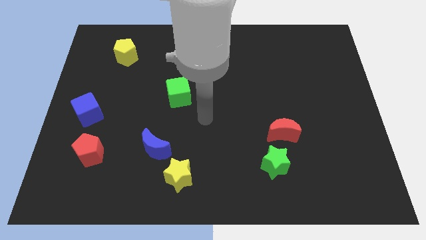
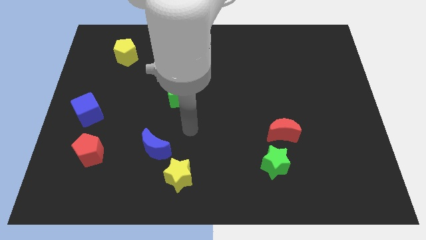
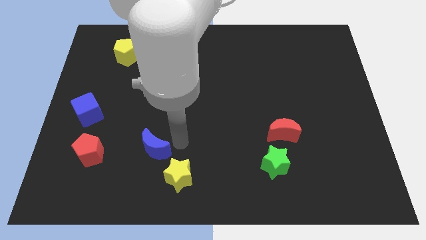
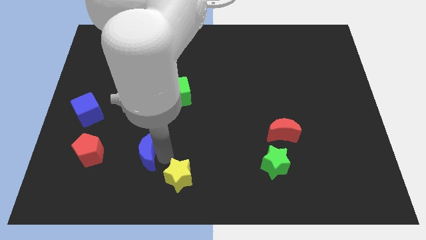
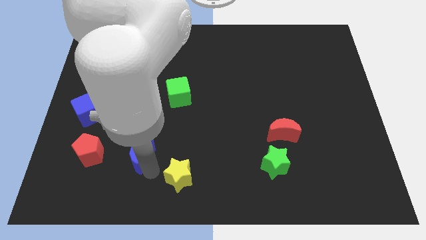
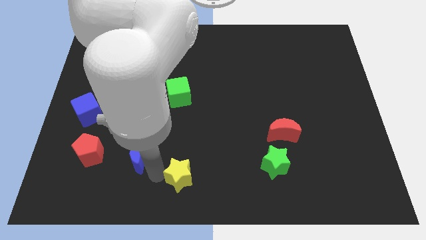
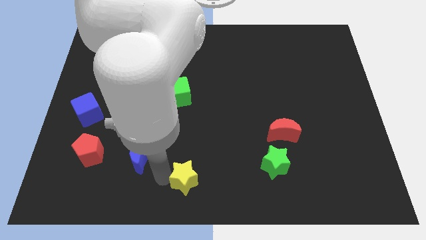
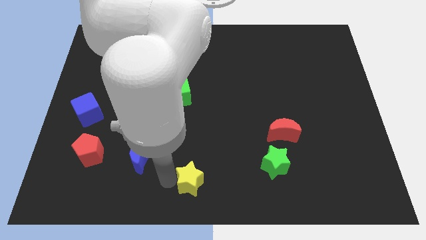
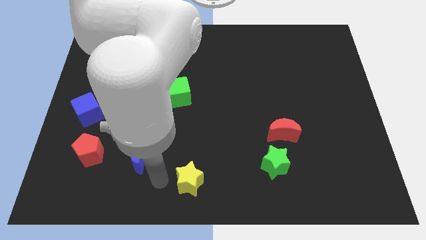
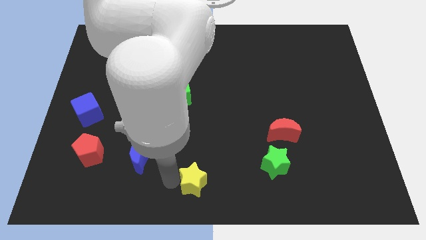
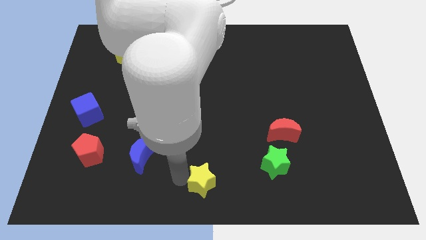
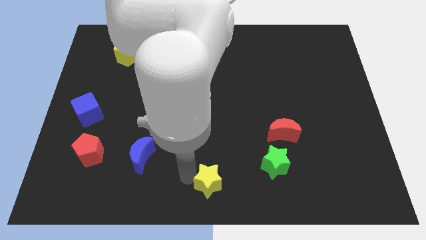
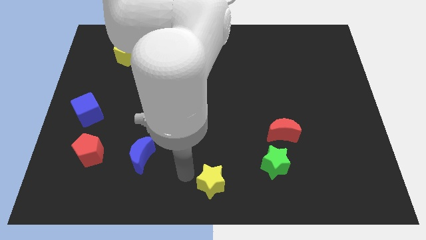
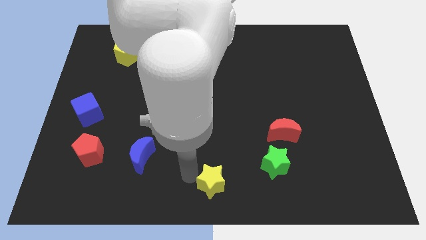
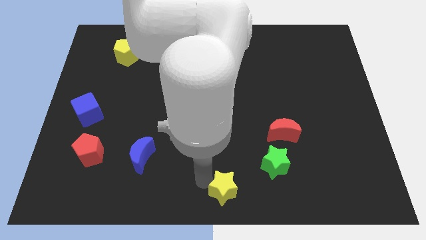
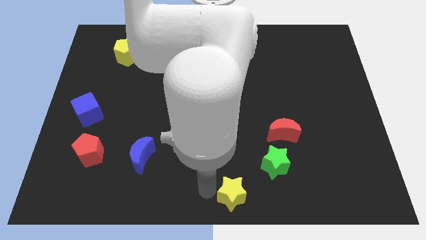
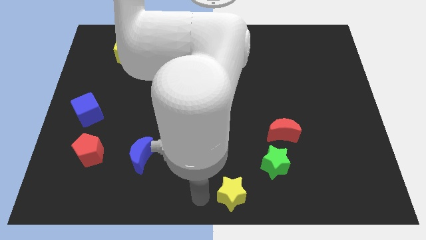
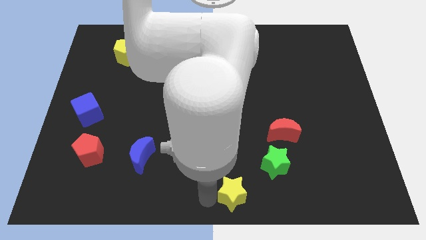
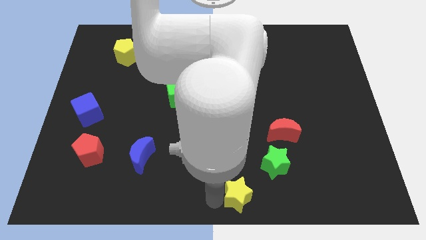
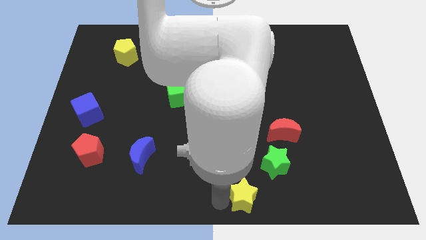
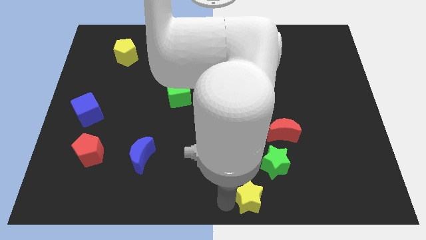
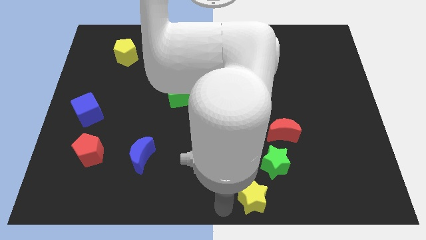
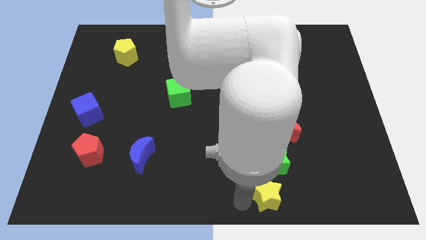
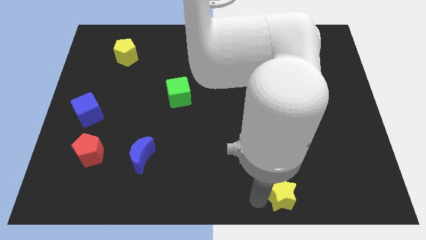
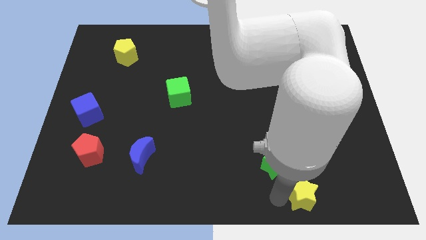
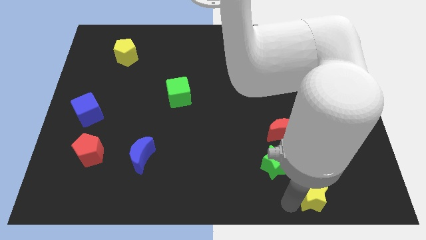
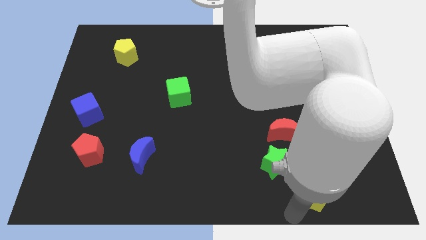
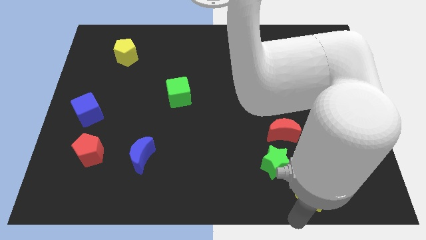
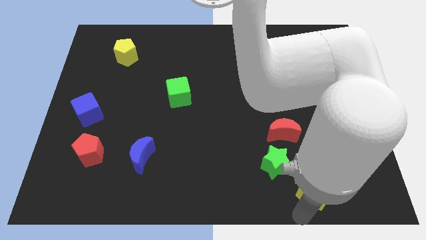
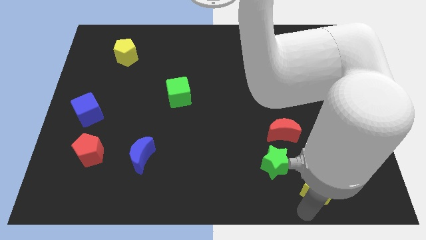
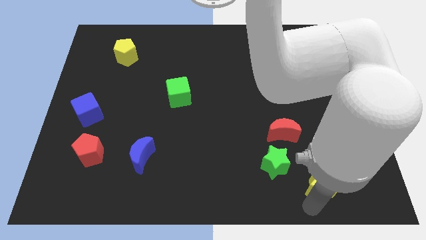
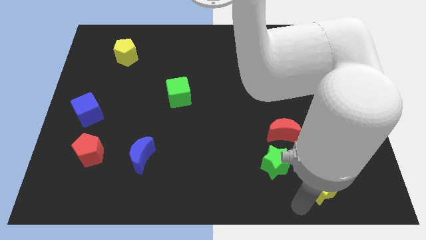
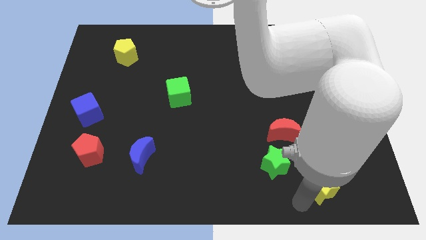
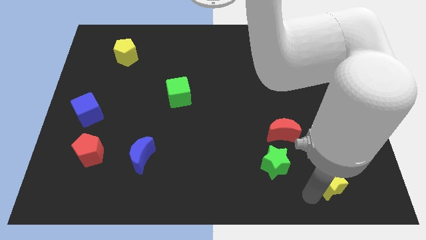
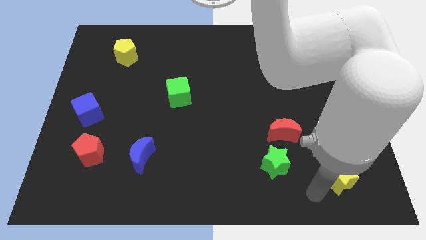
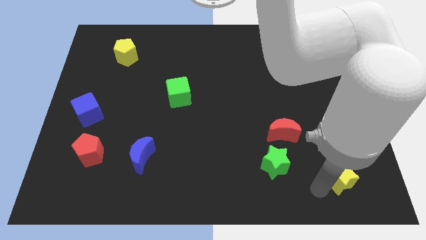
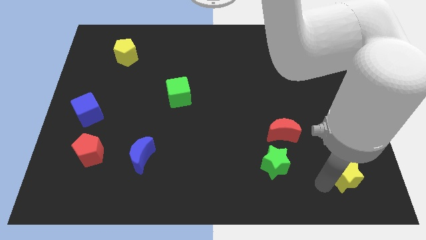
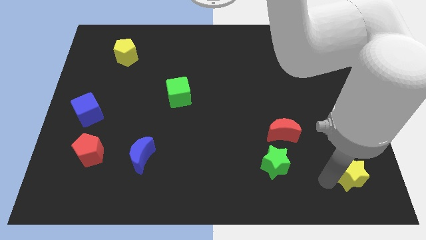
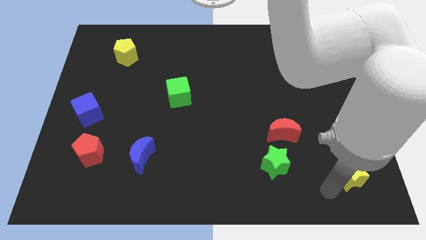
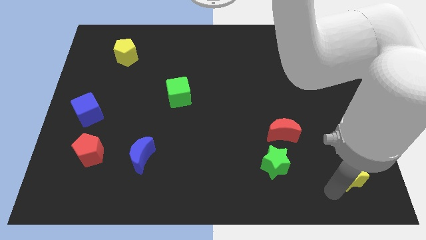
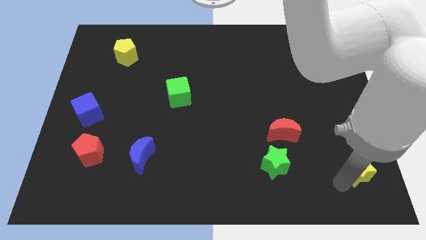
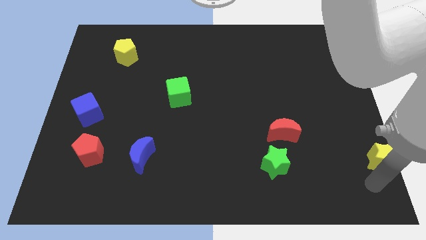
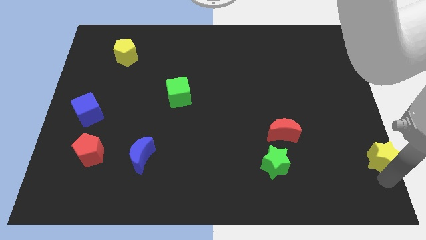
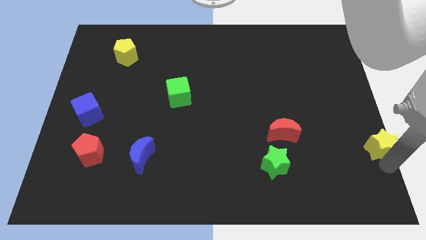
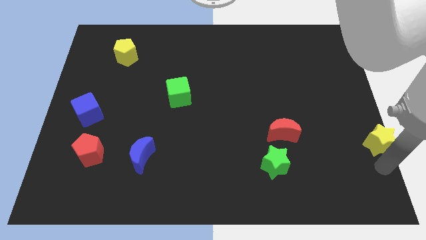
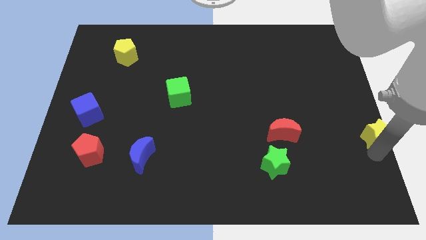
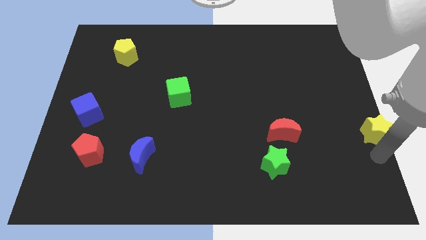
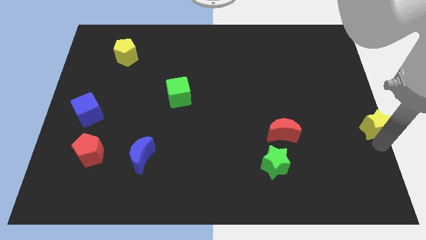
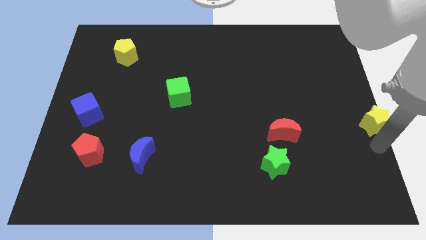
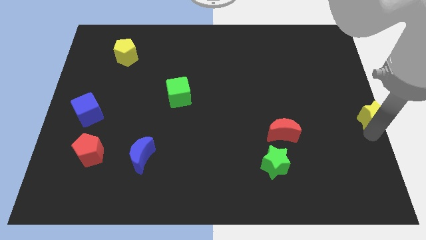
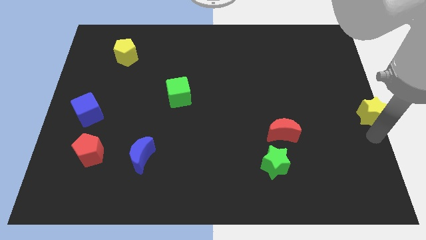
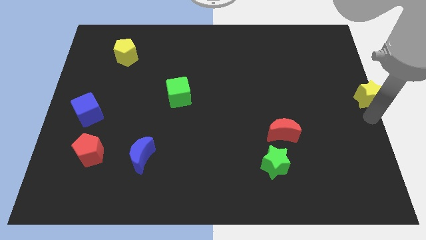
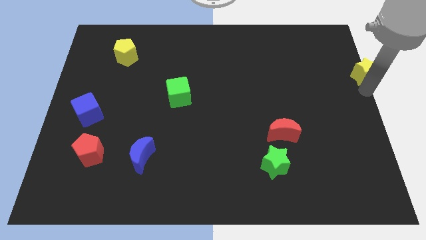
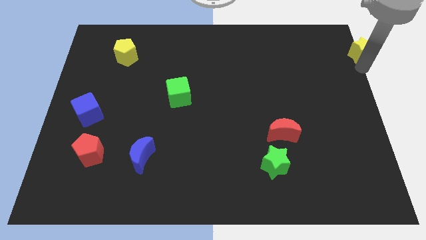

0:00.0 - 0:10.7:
push the yellow star to the top right

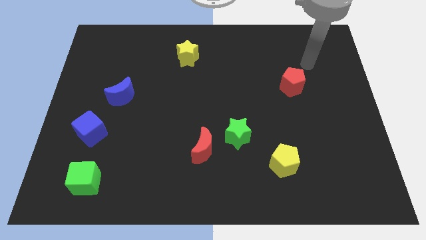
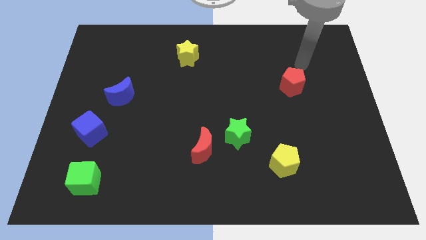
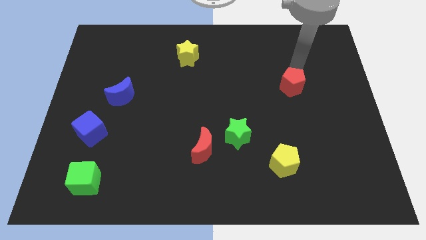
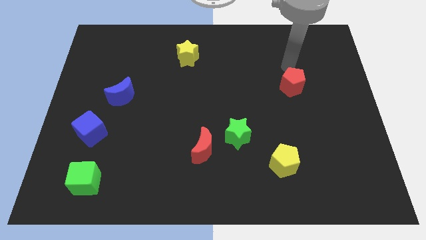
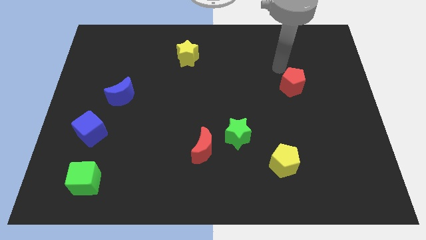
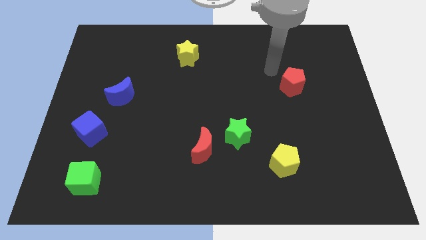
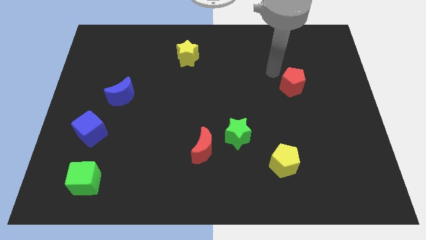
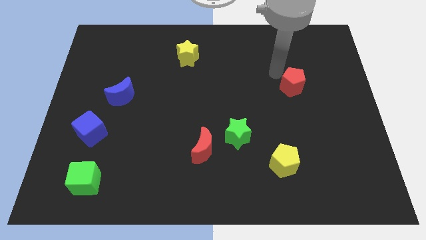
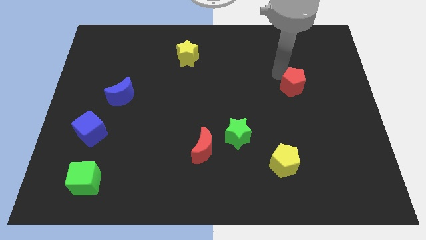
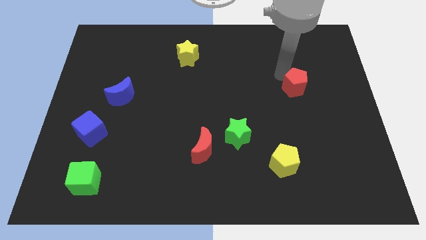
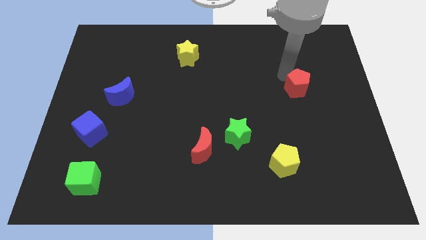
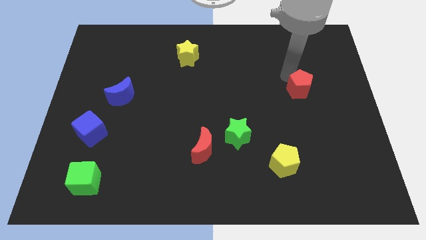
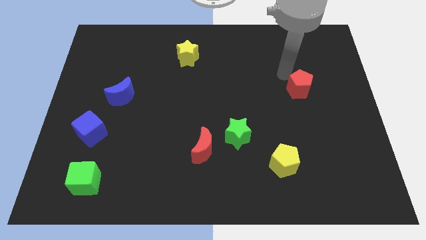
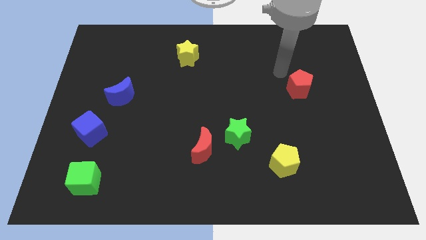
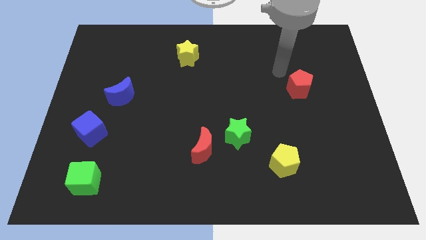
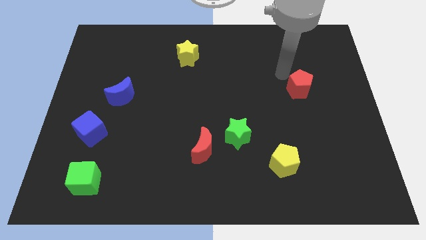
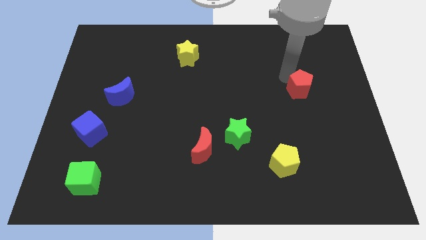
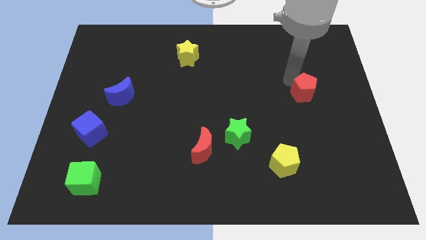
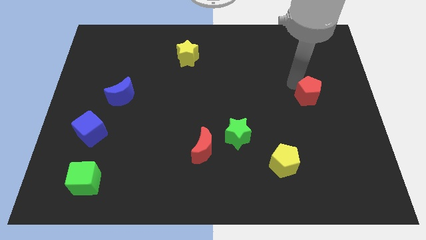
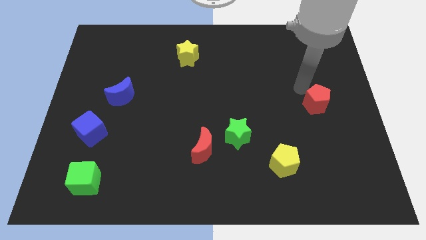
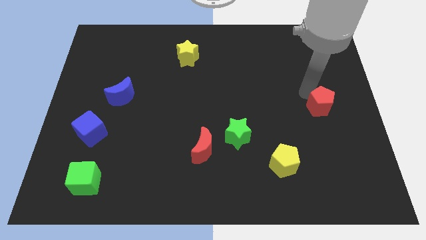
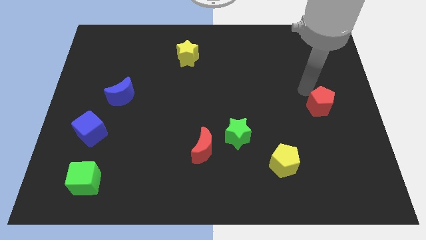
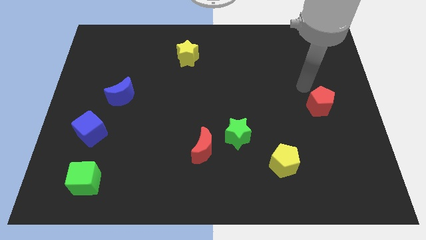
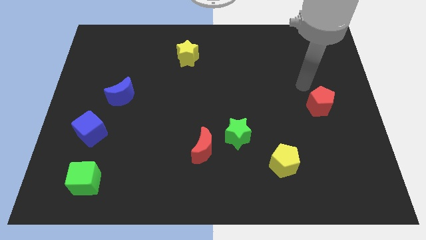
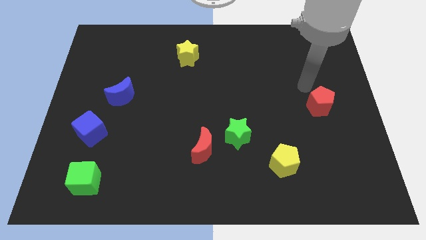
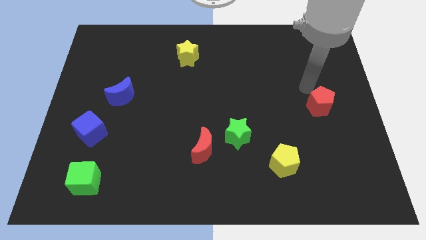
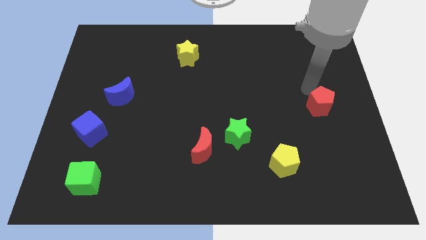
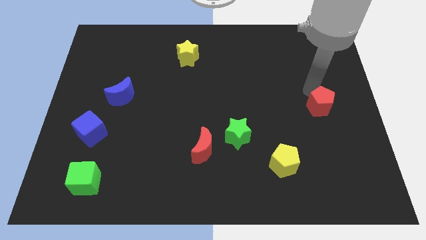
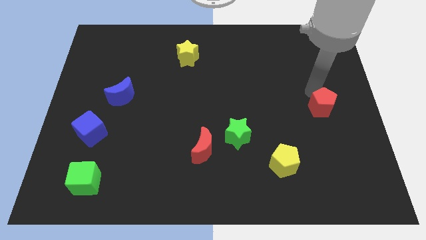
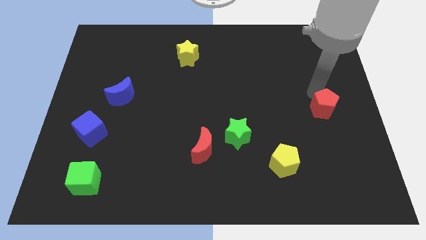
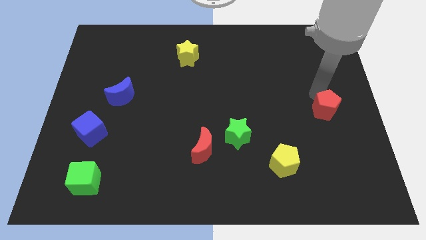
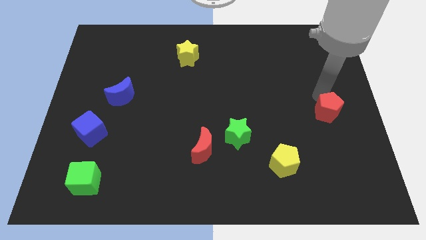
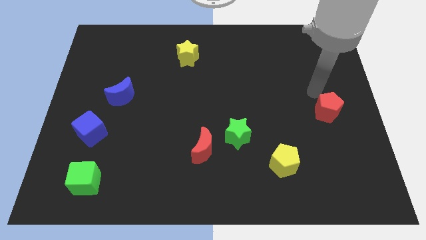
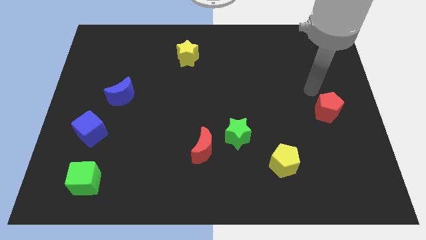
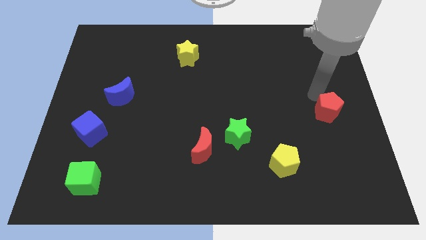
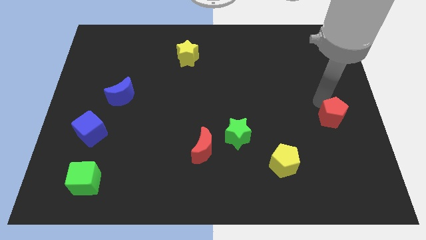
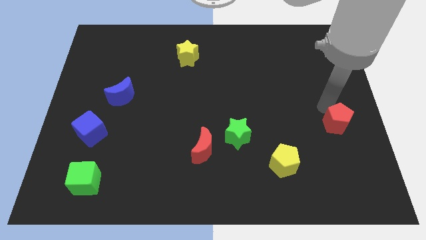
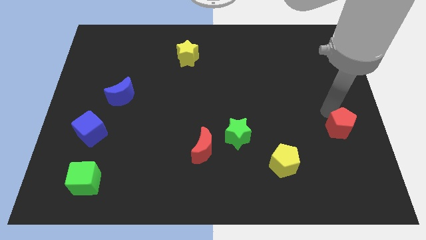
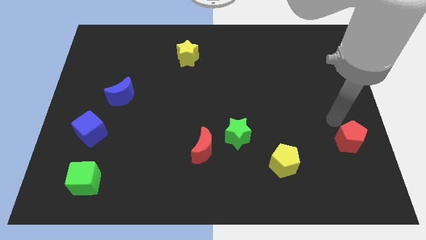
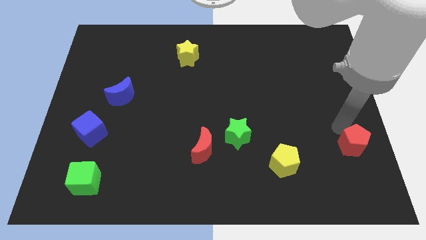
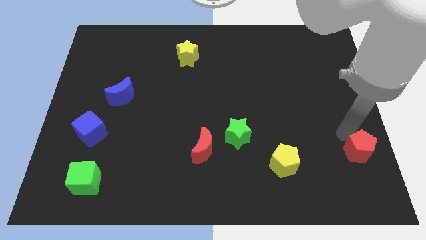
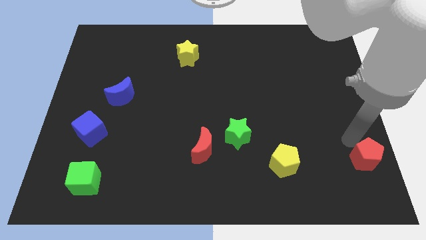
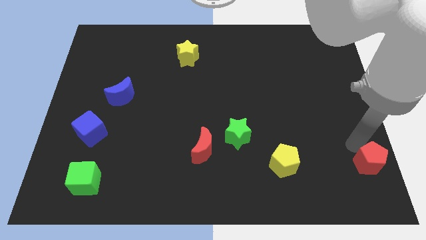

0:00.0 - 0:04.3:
push the red pentagon to the lower right corner
